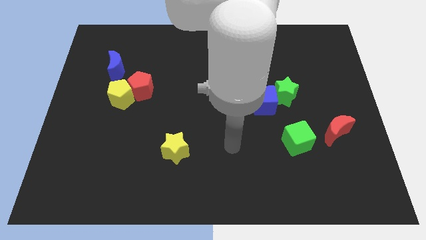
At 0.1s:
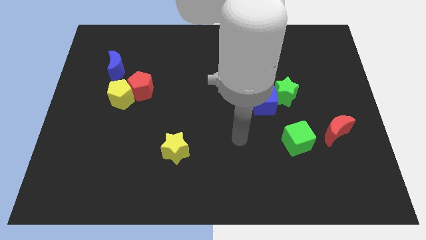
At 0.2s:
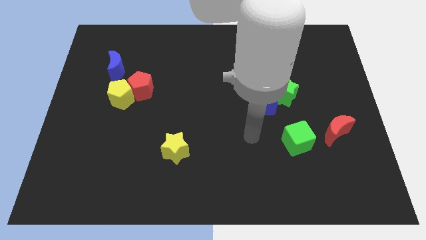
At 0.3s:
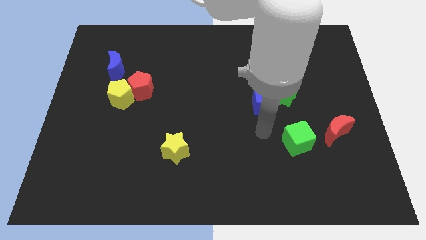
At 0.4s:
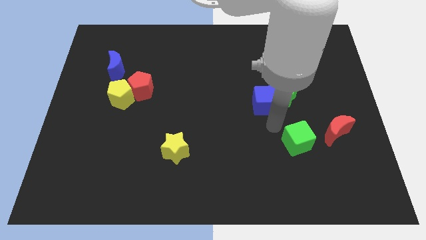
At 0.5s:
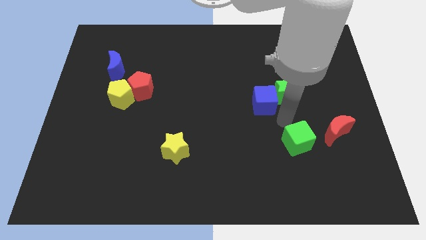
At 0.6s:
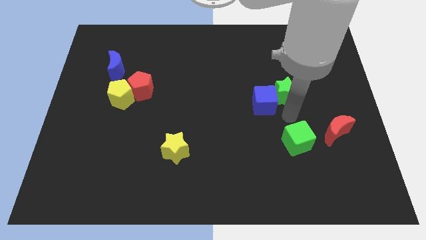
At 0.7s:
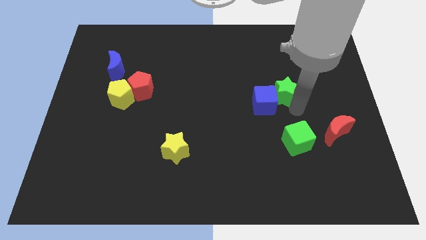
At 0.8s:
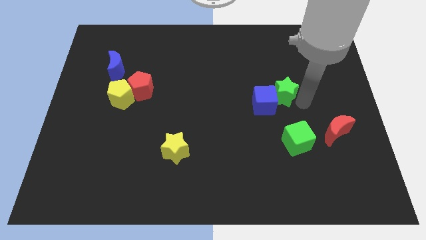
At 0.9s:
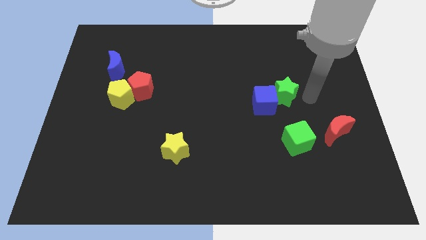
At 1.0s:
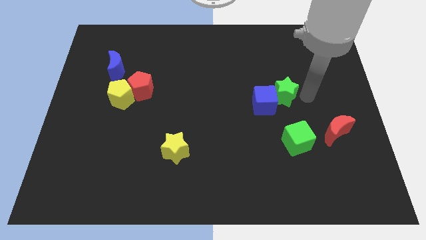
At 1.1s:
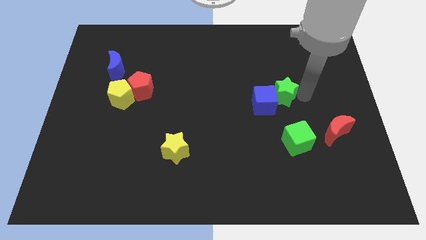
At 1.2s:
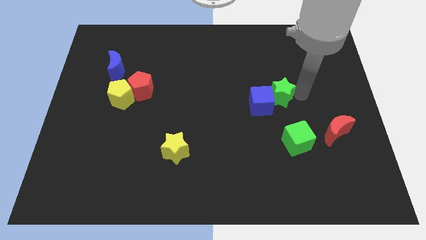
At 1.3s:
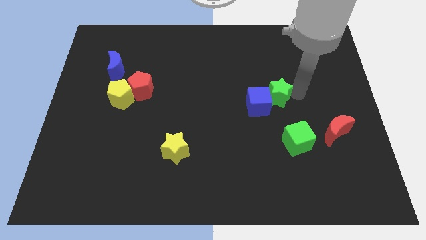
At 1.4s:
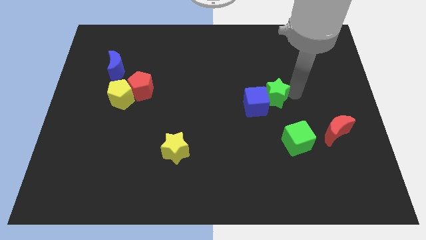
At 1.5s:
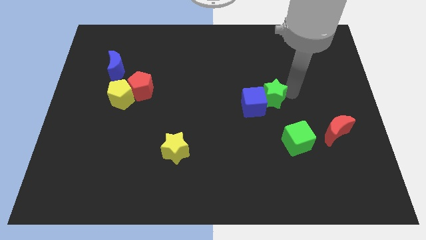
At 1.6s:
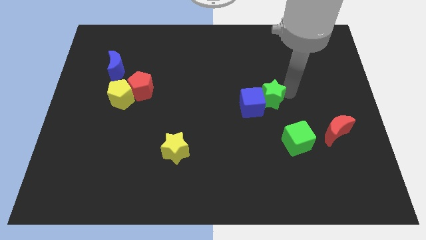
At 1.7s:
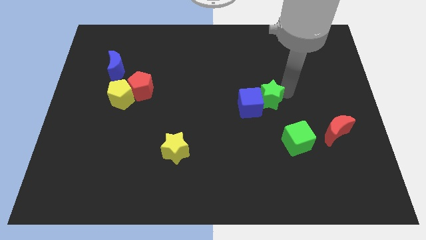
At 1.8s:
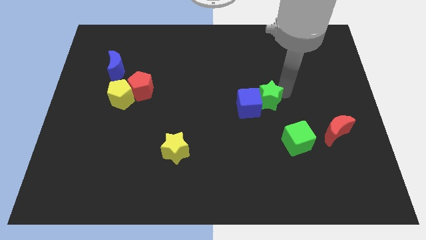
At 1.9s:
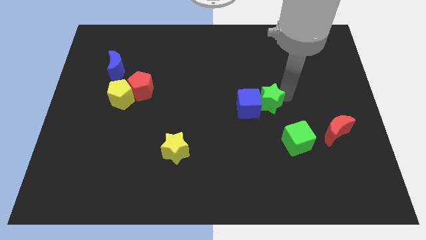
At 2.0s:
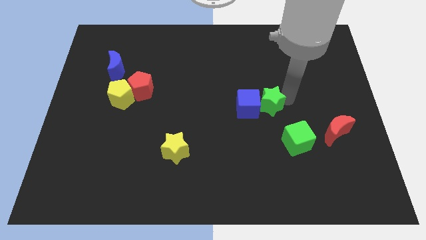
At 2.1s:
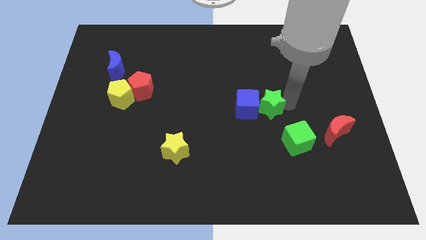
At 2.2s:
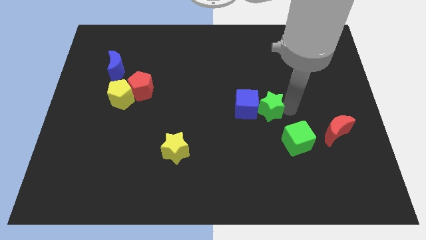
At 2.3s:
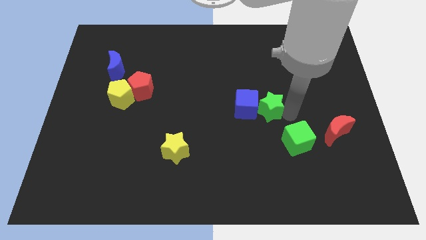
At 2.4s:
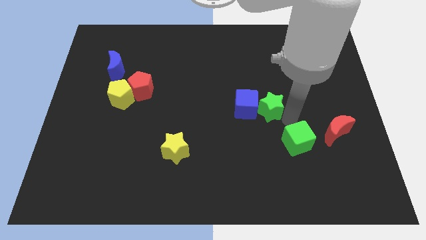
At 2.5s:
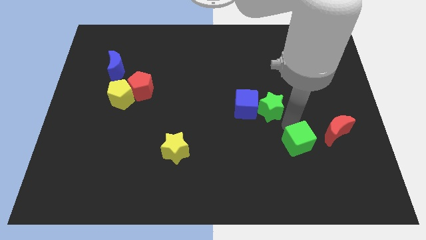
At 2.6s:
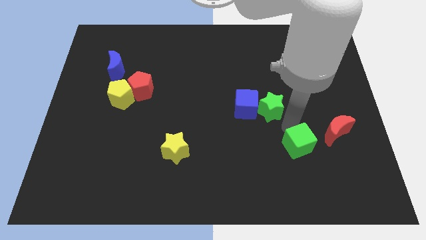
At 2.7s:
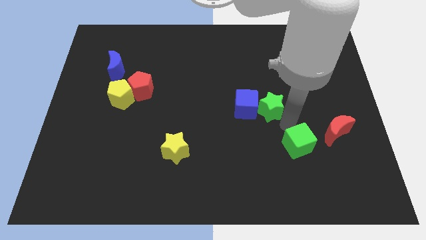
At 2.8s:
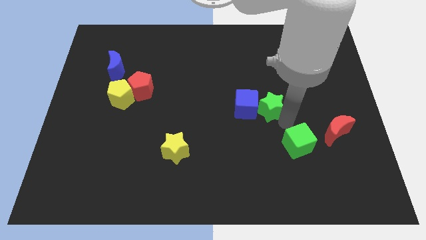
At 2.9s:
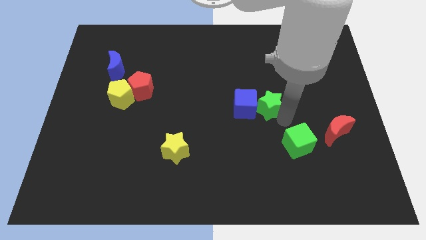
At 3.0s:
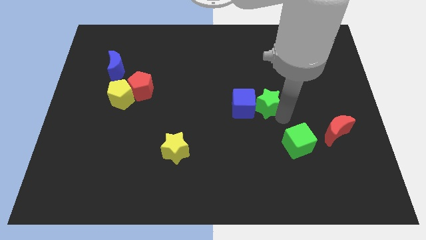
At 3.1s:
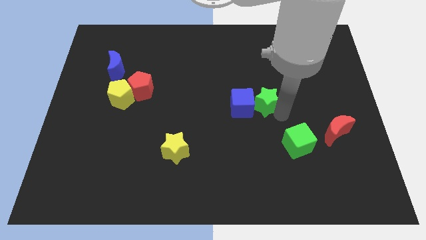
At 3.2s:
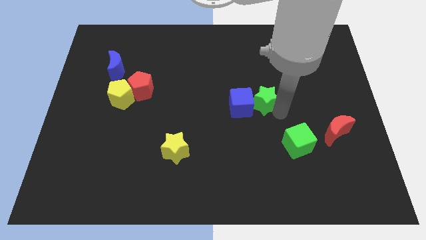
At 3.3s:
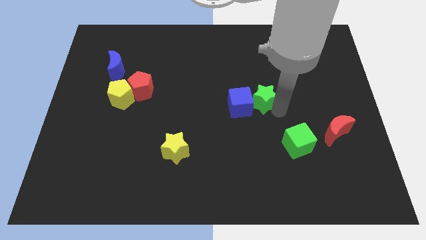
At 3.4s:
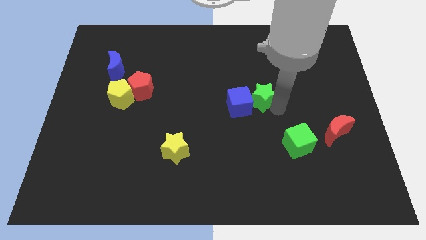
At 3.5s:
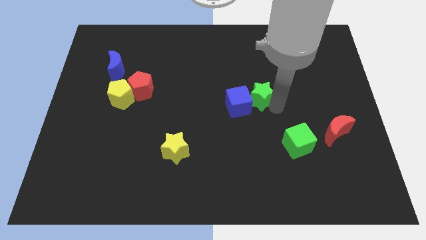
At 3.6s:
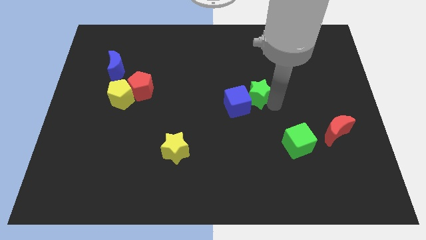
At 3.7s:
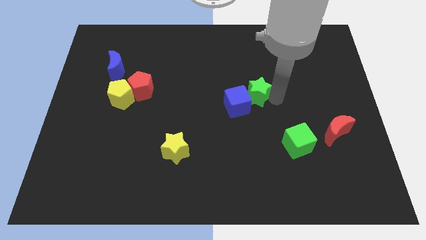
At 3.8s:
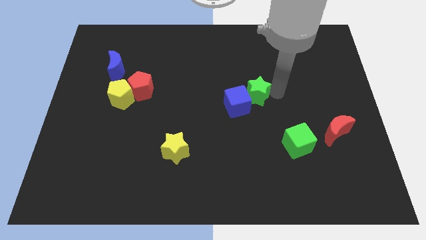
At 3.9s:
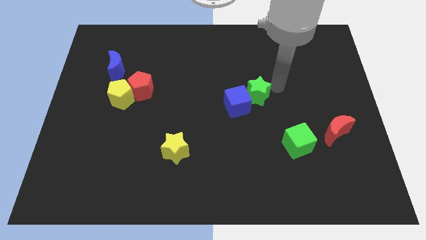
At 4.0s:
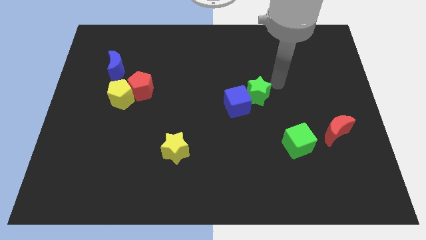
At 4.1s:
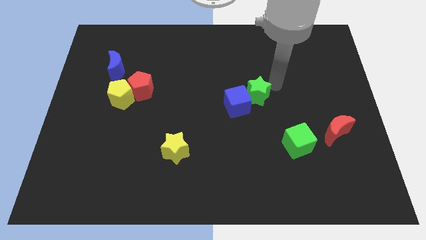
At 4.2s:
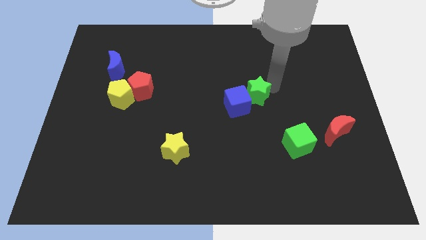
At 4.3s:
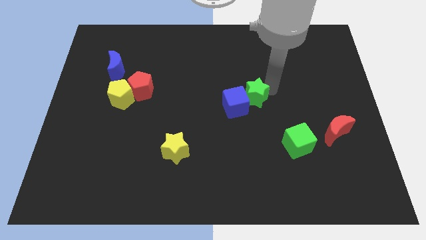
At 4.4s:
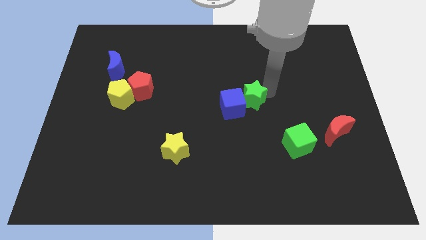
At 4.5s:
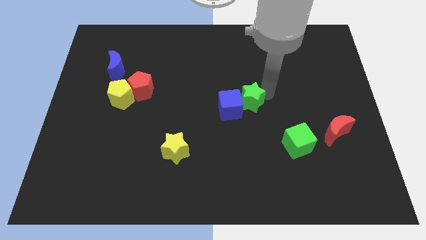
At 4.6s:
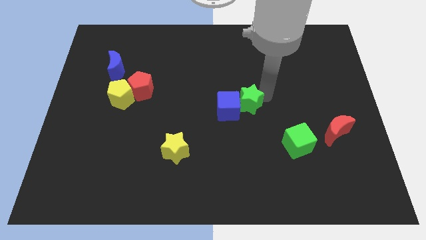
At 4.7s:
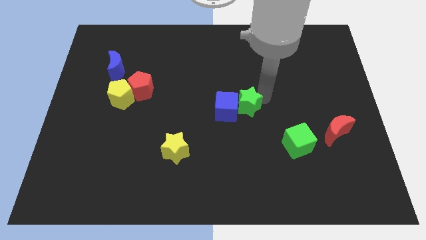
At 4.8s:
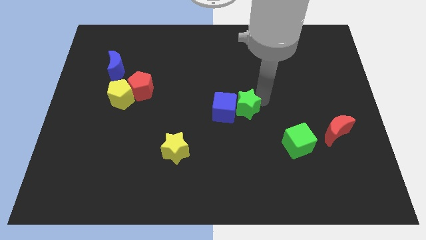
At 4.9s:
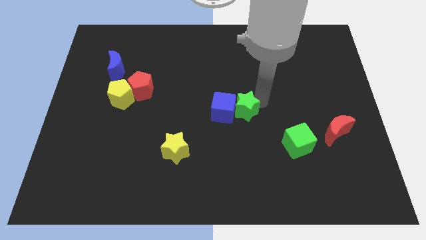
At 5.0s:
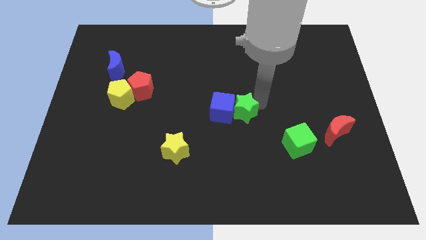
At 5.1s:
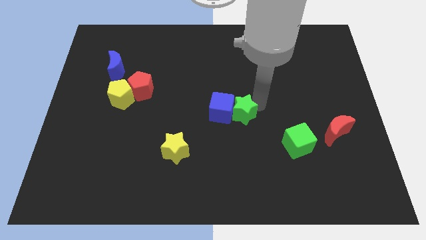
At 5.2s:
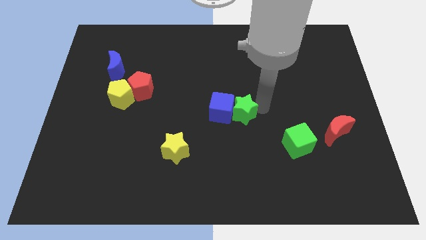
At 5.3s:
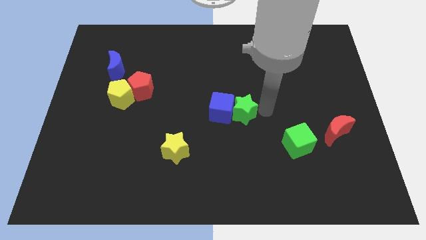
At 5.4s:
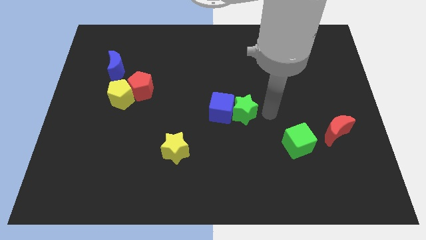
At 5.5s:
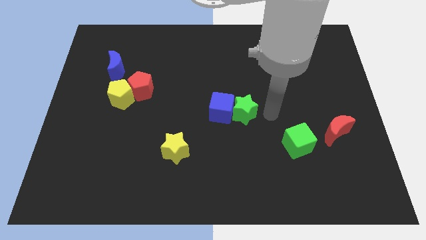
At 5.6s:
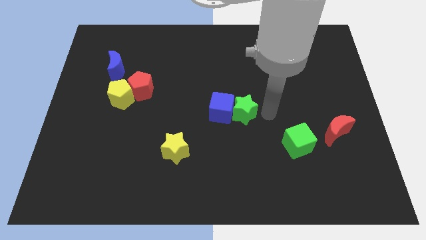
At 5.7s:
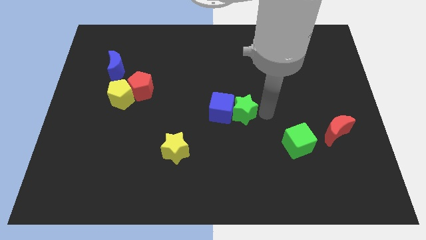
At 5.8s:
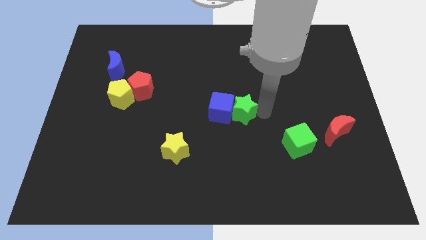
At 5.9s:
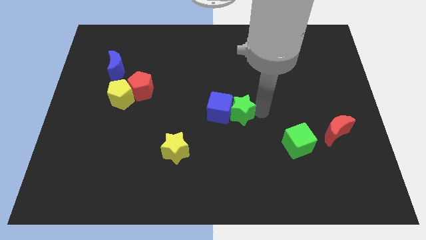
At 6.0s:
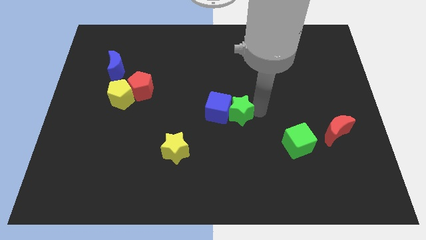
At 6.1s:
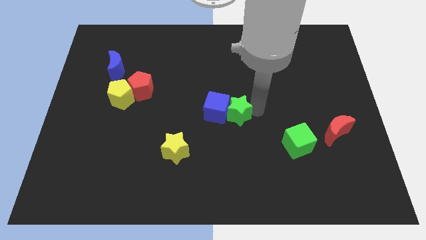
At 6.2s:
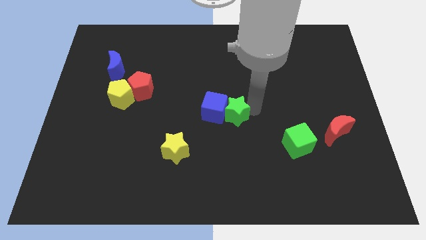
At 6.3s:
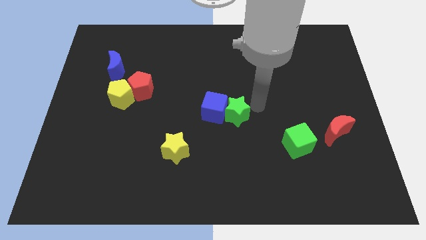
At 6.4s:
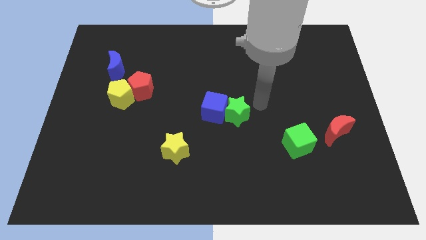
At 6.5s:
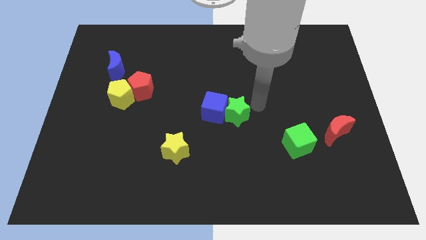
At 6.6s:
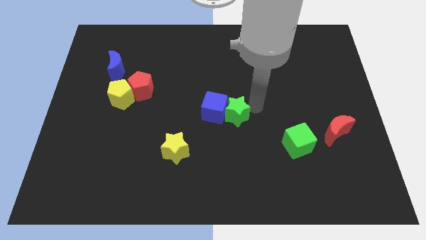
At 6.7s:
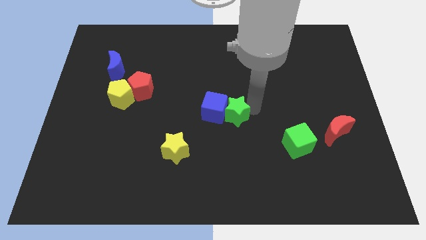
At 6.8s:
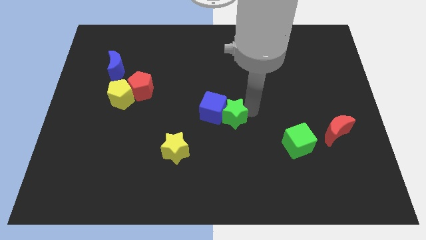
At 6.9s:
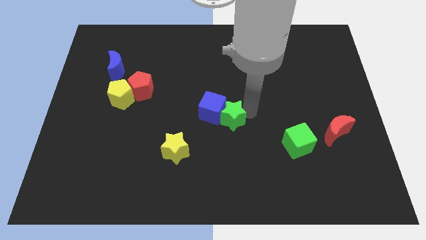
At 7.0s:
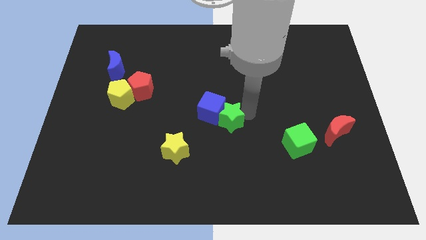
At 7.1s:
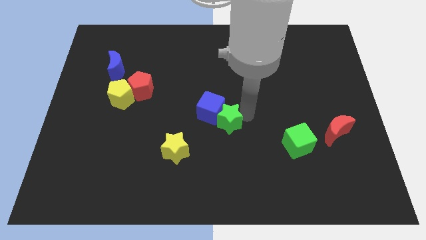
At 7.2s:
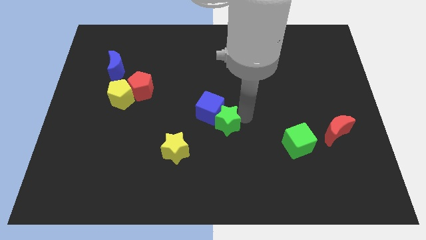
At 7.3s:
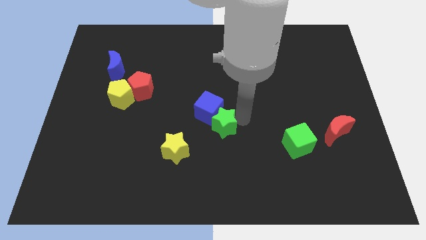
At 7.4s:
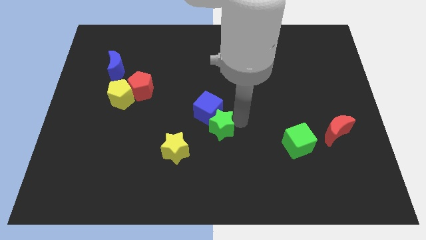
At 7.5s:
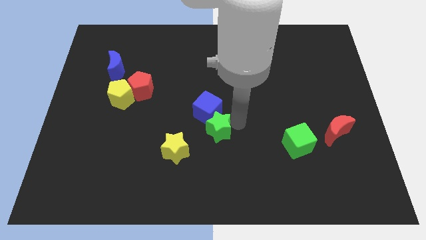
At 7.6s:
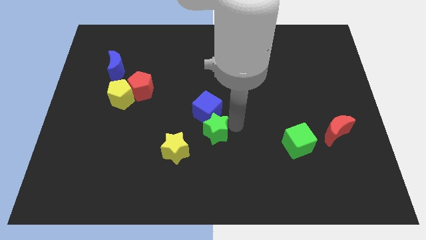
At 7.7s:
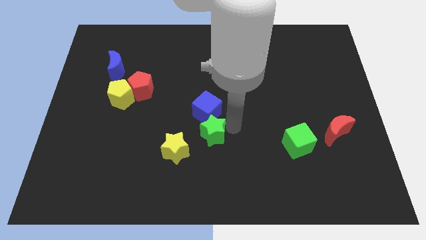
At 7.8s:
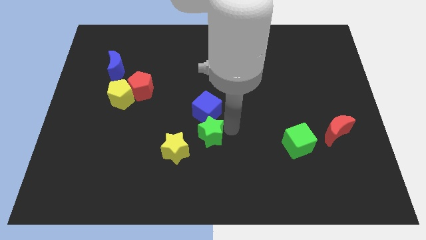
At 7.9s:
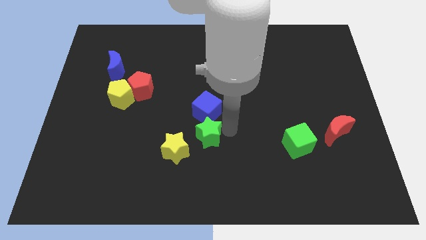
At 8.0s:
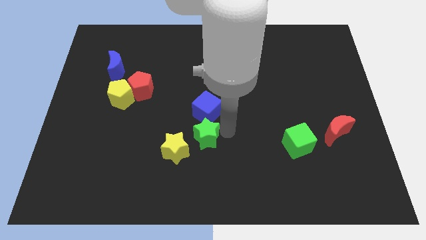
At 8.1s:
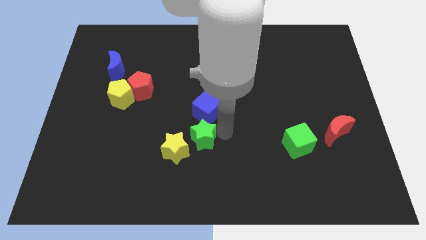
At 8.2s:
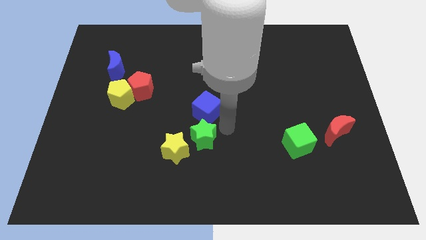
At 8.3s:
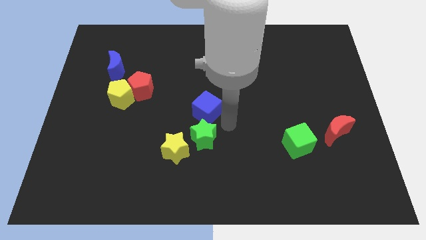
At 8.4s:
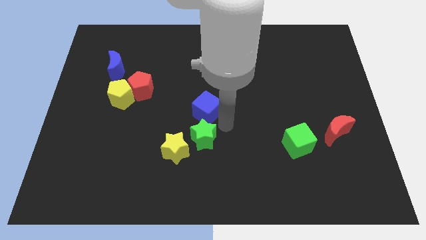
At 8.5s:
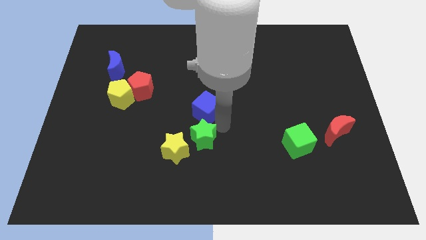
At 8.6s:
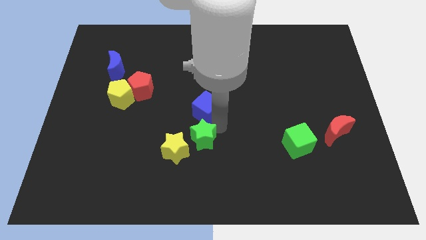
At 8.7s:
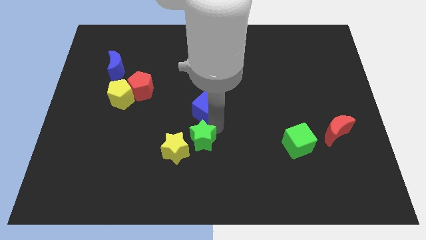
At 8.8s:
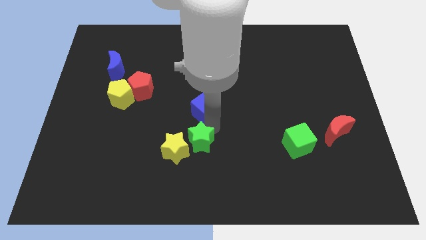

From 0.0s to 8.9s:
push the green star close to the yellow star
